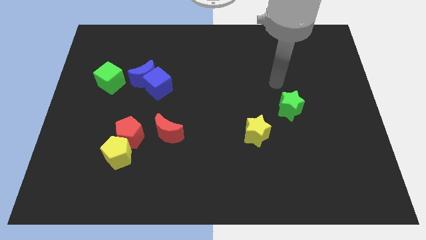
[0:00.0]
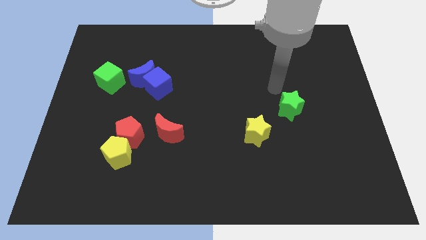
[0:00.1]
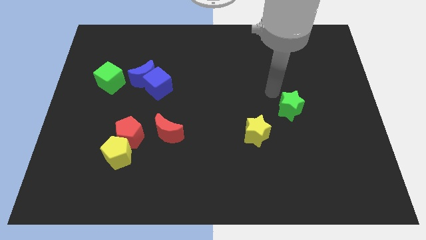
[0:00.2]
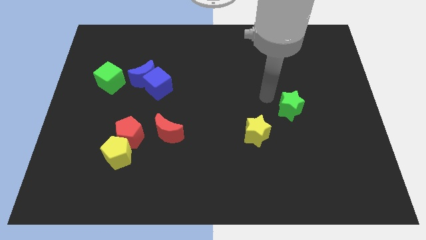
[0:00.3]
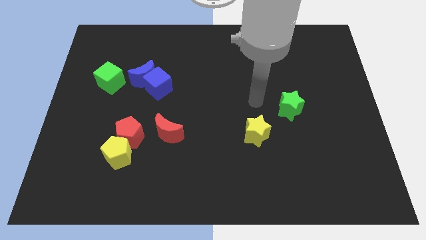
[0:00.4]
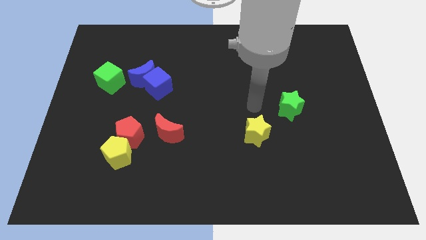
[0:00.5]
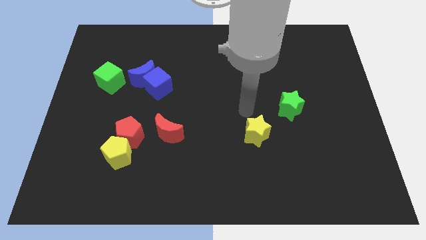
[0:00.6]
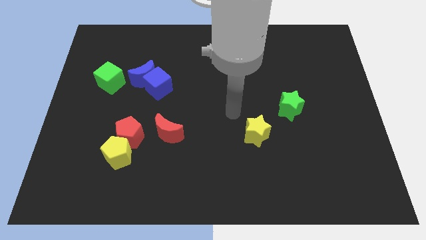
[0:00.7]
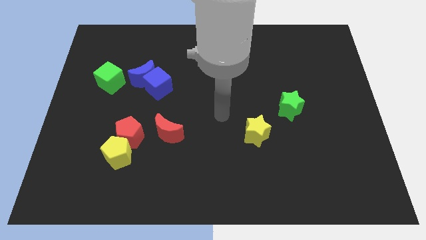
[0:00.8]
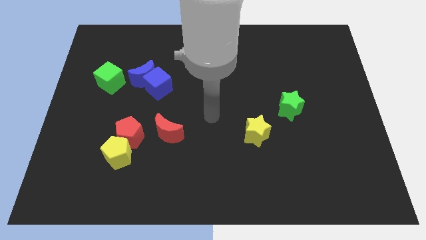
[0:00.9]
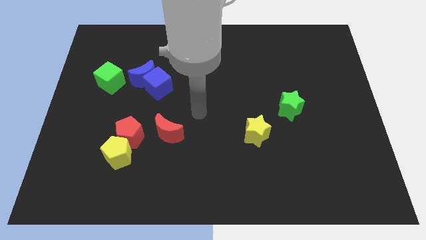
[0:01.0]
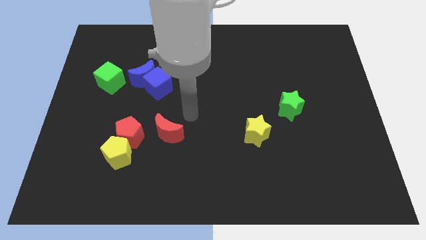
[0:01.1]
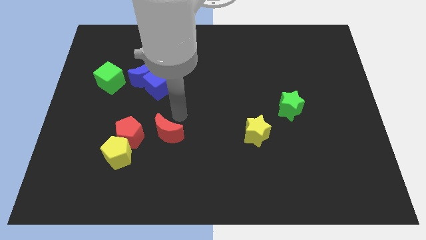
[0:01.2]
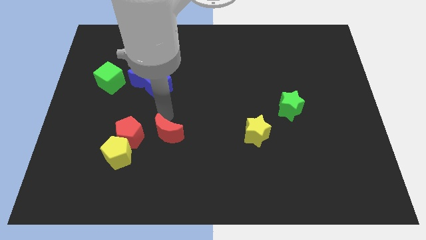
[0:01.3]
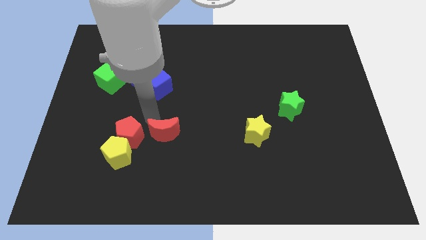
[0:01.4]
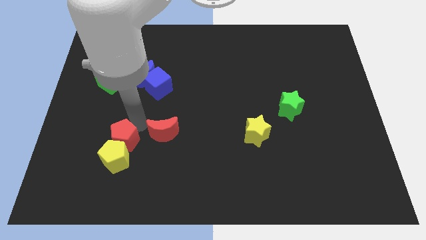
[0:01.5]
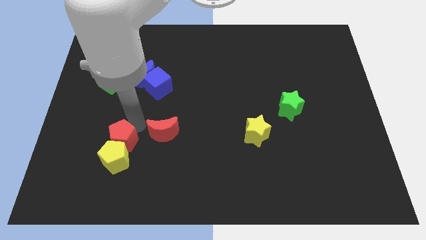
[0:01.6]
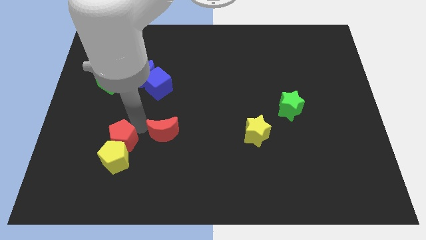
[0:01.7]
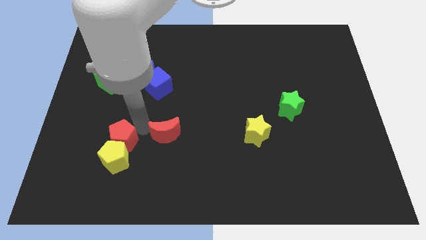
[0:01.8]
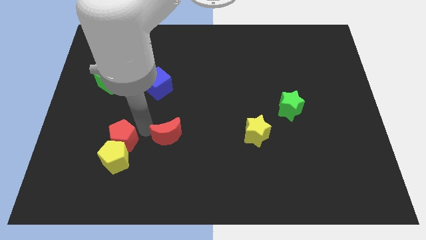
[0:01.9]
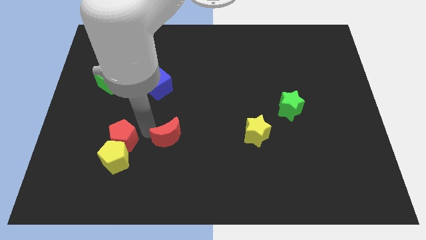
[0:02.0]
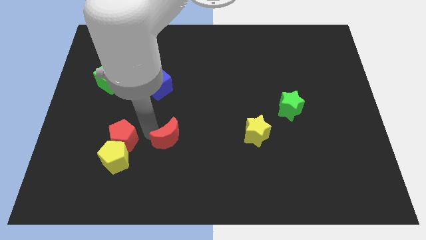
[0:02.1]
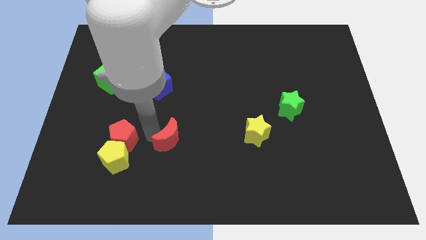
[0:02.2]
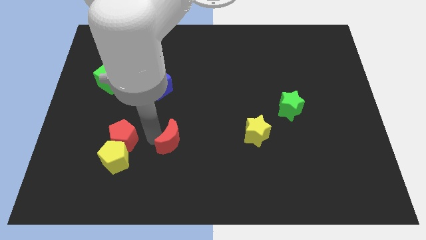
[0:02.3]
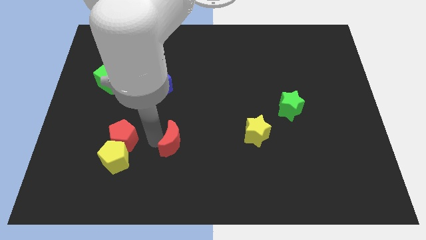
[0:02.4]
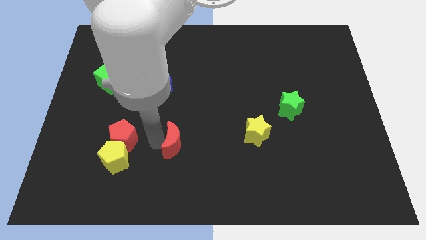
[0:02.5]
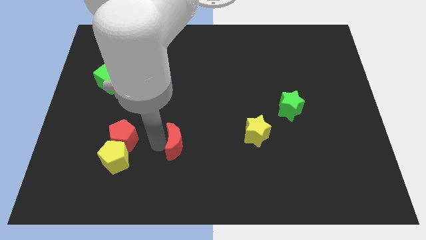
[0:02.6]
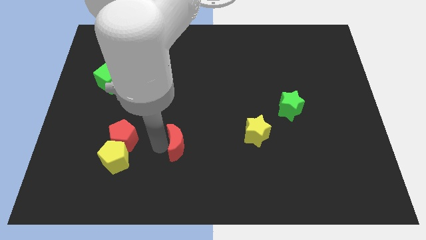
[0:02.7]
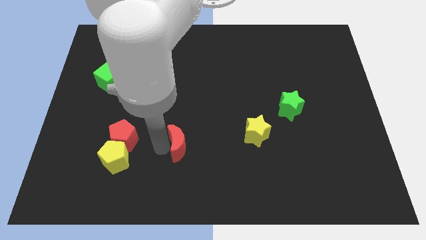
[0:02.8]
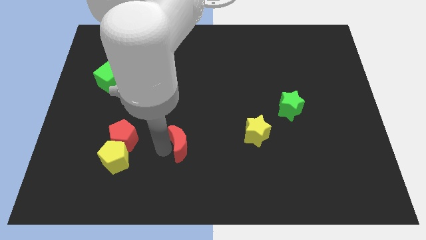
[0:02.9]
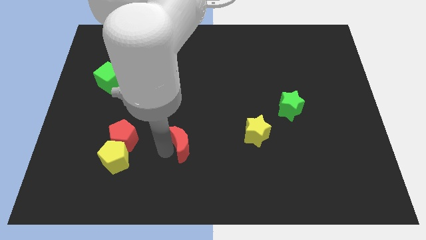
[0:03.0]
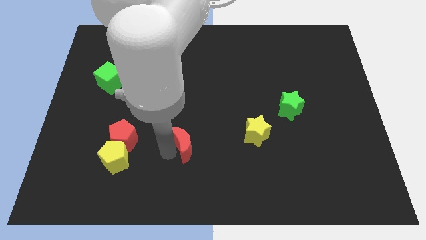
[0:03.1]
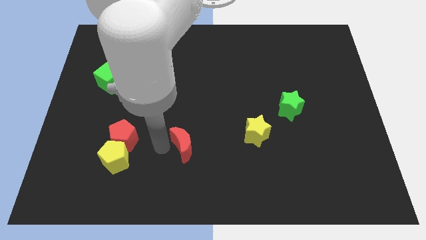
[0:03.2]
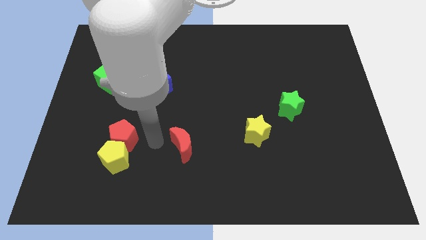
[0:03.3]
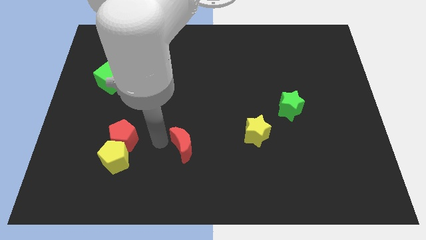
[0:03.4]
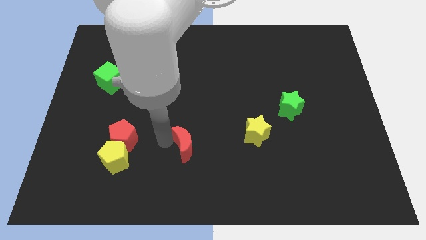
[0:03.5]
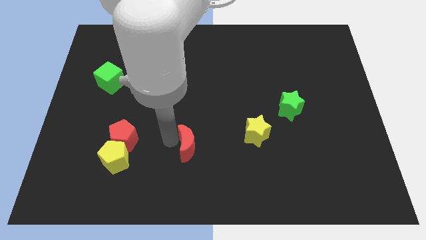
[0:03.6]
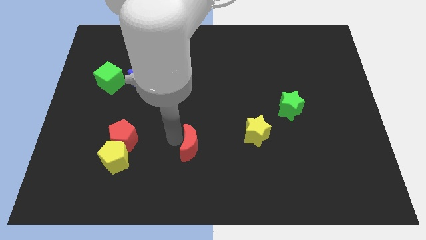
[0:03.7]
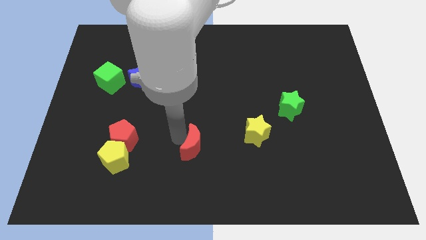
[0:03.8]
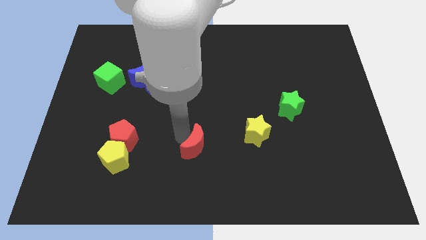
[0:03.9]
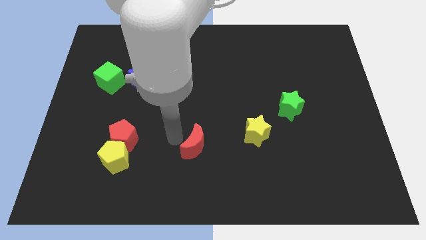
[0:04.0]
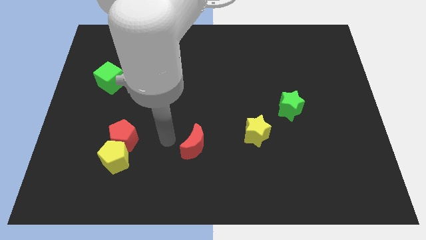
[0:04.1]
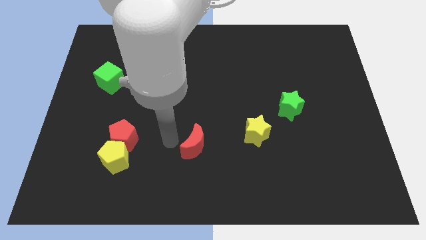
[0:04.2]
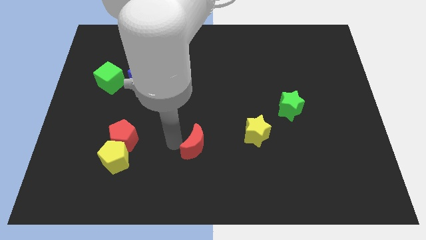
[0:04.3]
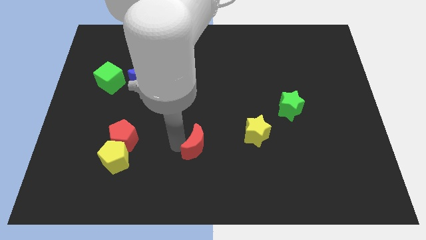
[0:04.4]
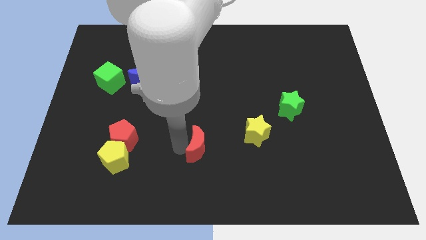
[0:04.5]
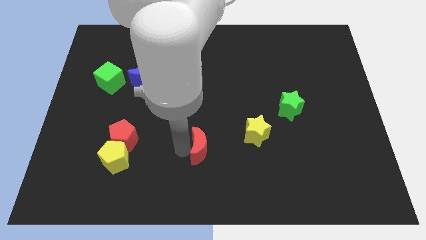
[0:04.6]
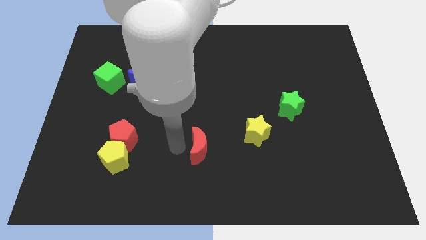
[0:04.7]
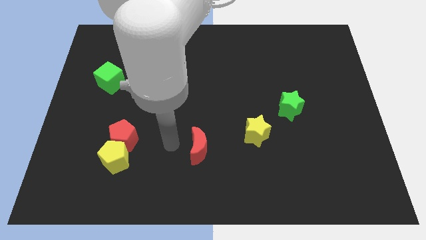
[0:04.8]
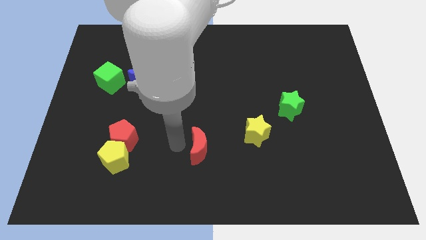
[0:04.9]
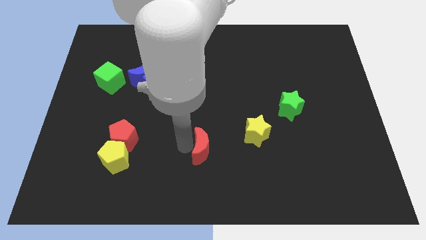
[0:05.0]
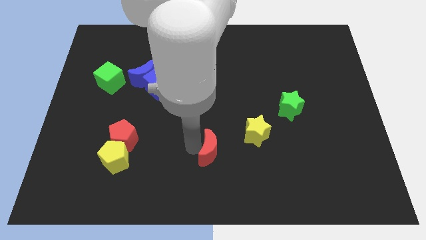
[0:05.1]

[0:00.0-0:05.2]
move the red moon to the bottom left of the yellow star

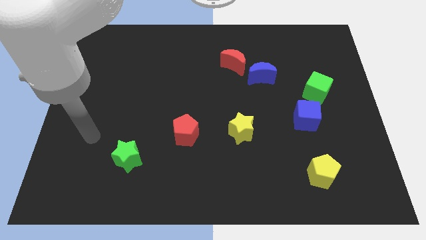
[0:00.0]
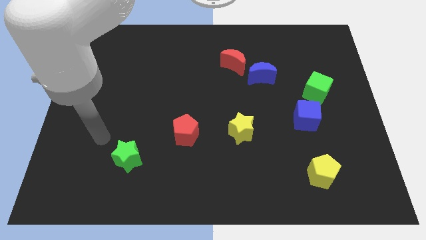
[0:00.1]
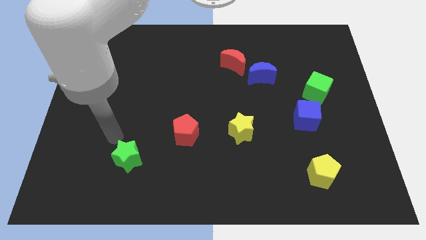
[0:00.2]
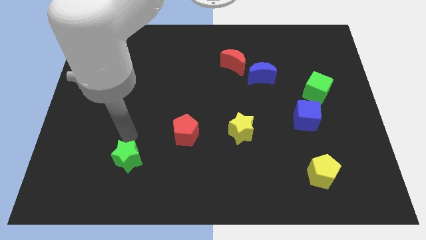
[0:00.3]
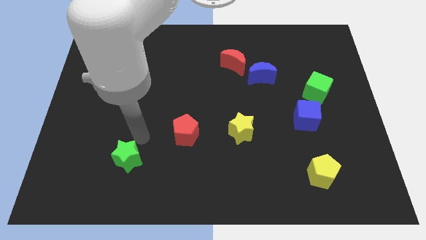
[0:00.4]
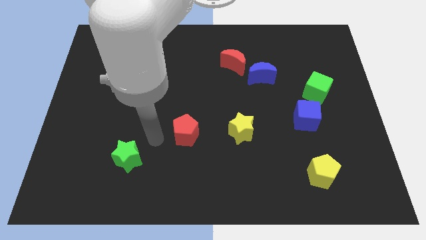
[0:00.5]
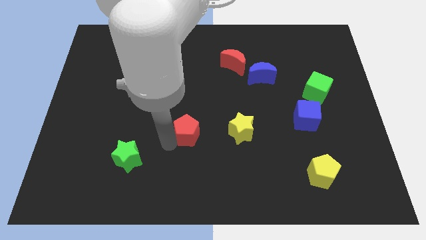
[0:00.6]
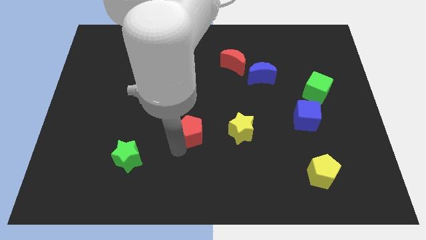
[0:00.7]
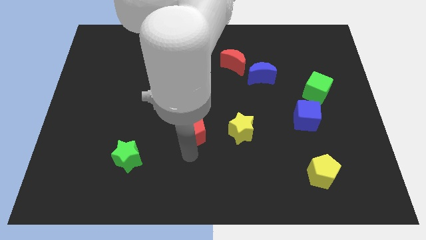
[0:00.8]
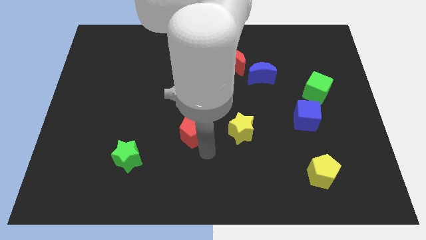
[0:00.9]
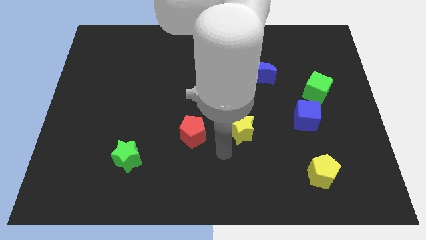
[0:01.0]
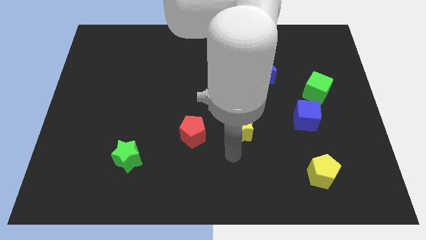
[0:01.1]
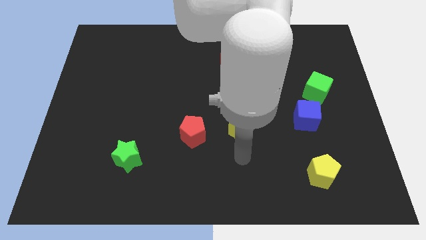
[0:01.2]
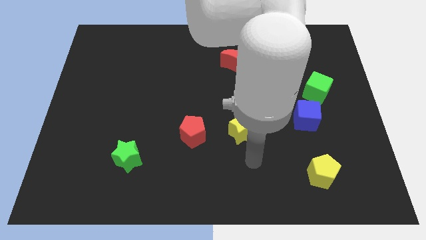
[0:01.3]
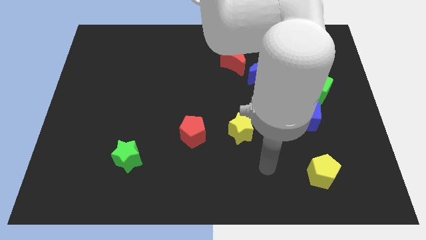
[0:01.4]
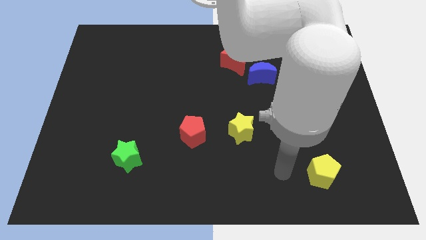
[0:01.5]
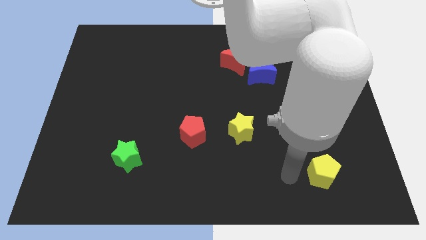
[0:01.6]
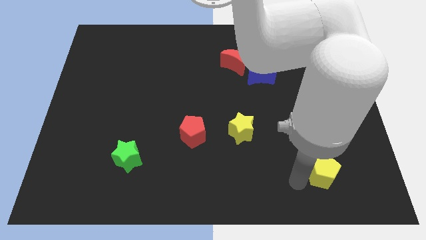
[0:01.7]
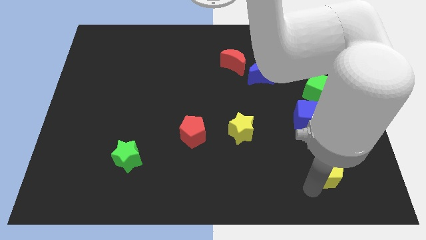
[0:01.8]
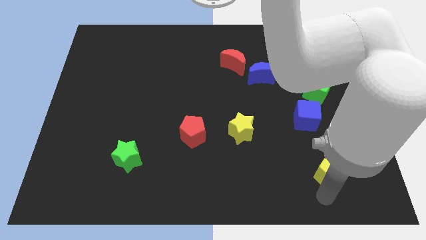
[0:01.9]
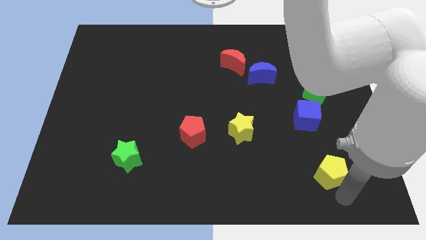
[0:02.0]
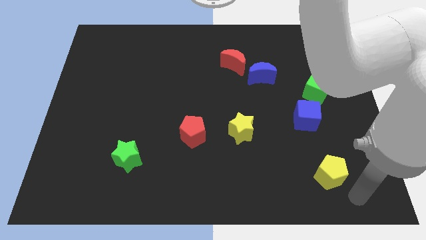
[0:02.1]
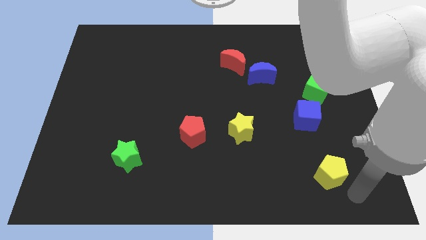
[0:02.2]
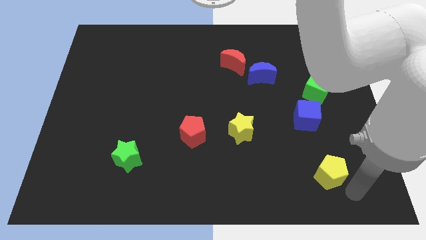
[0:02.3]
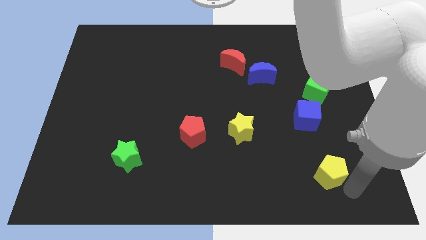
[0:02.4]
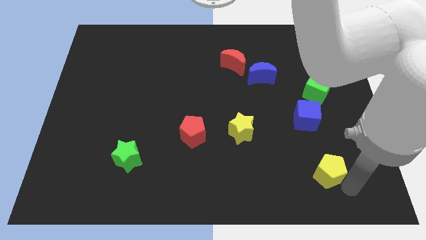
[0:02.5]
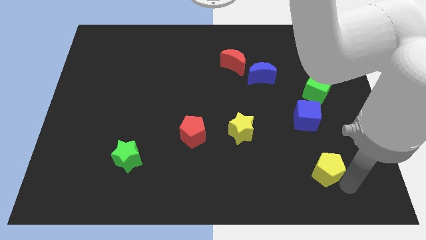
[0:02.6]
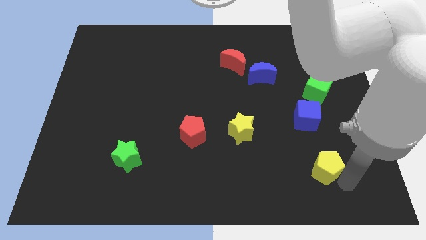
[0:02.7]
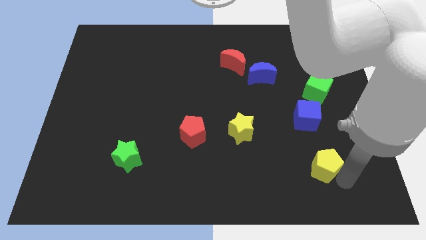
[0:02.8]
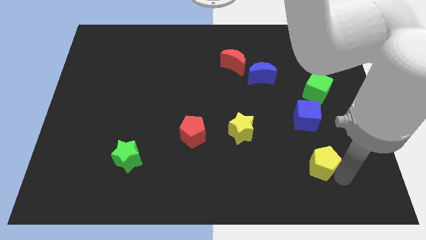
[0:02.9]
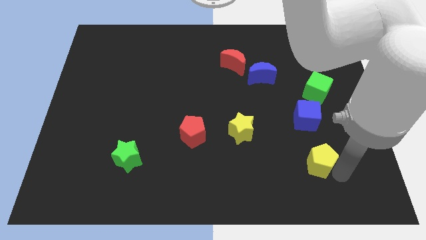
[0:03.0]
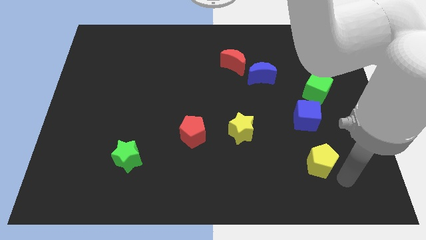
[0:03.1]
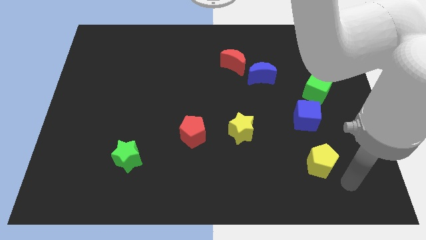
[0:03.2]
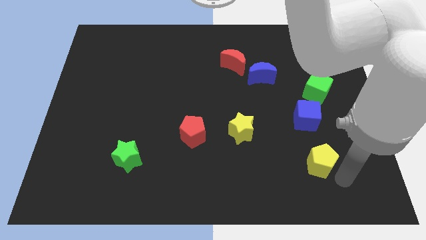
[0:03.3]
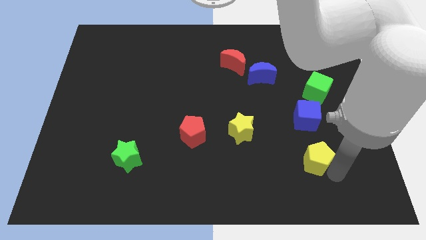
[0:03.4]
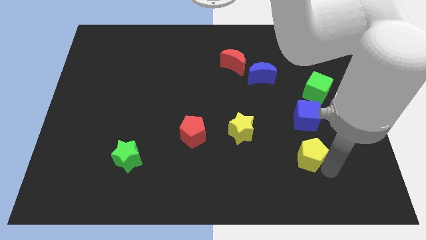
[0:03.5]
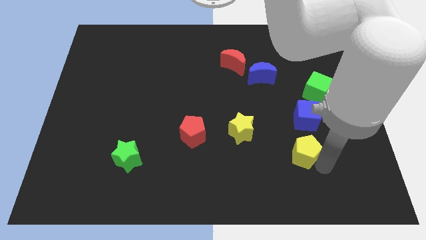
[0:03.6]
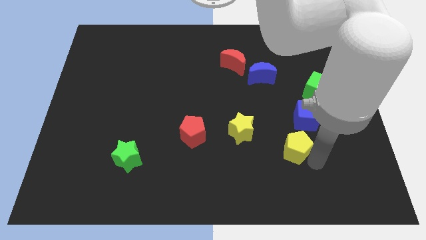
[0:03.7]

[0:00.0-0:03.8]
slide the yellow pentagon to the bottom left side of the blue cube
